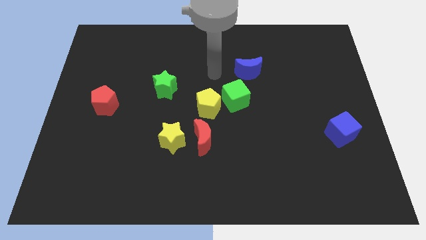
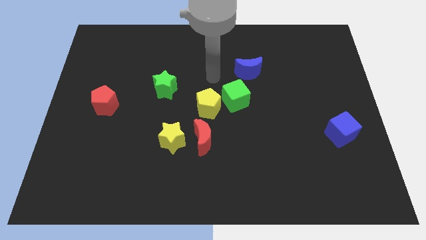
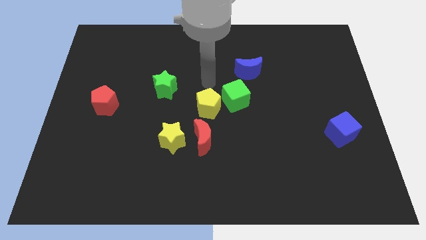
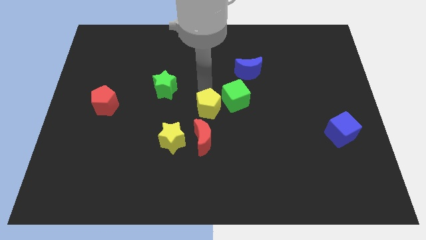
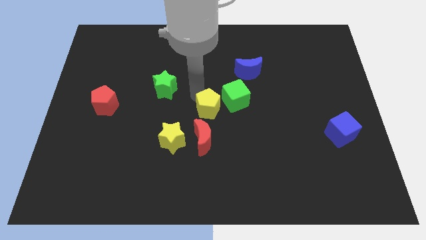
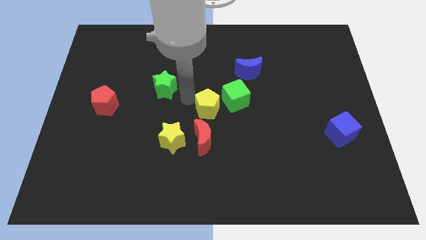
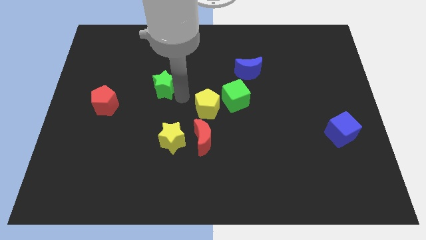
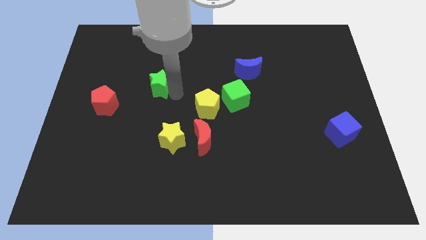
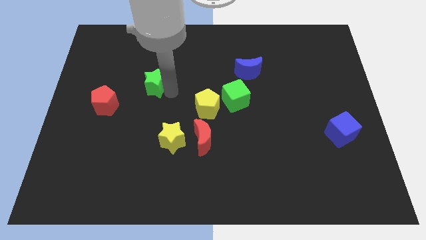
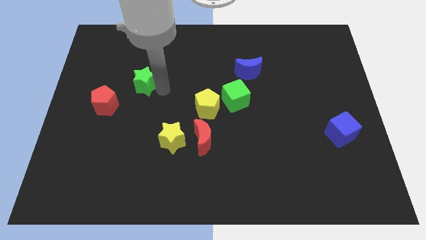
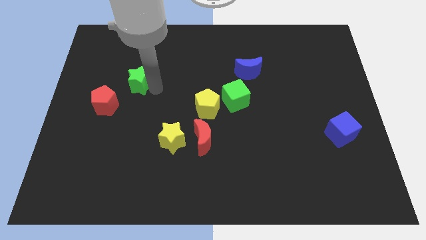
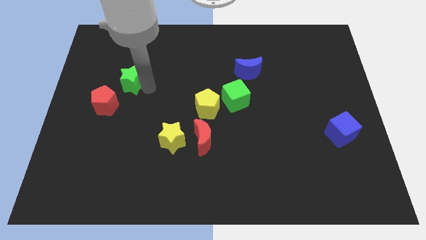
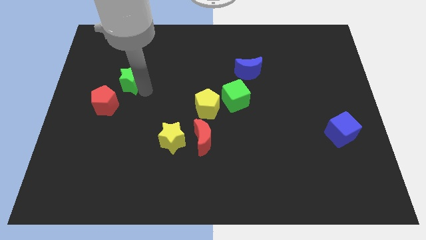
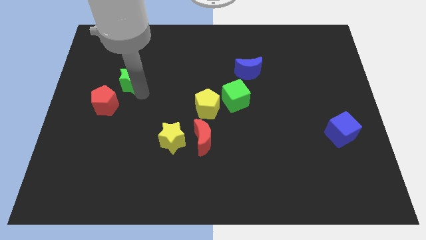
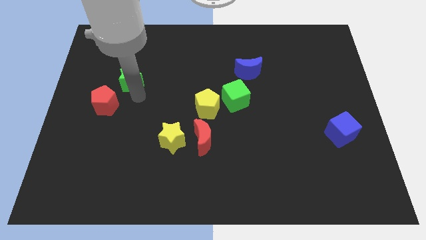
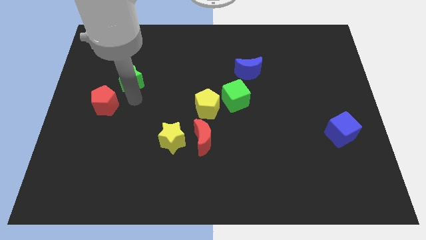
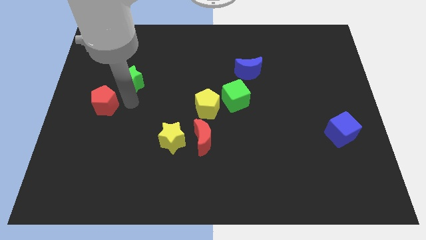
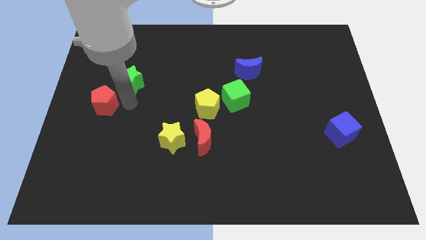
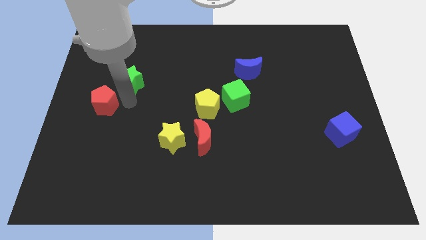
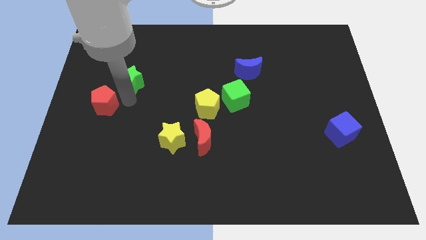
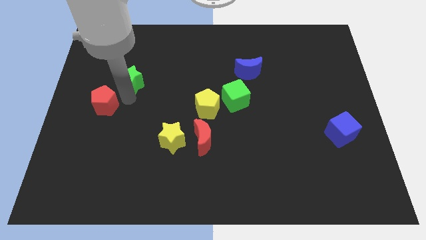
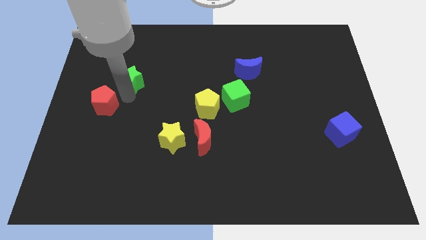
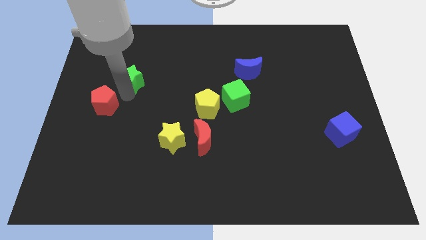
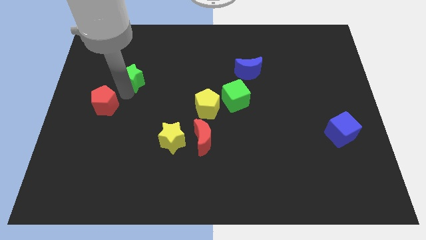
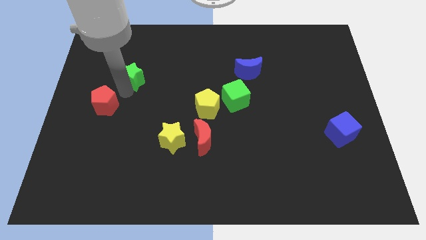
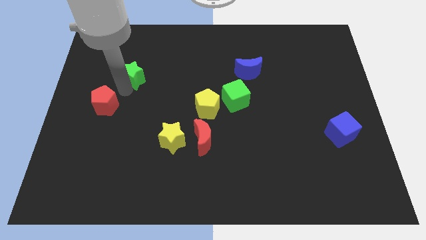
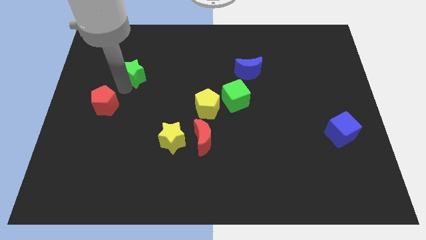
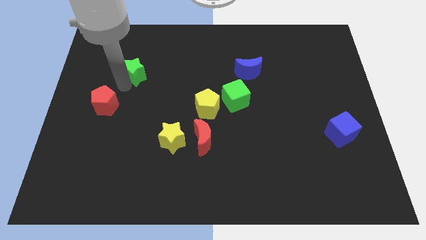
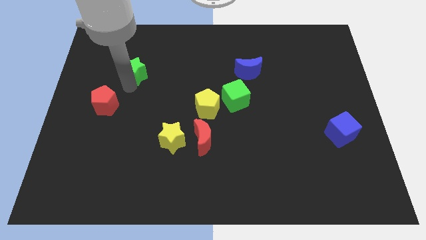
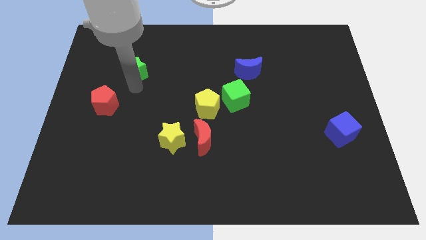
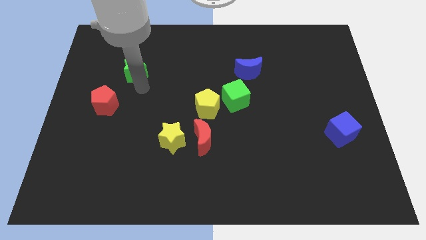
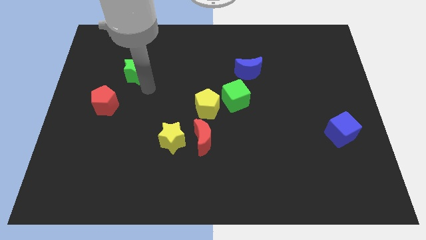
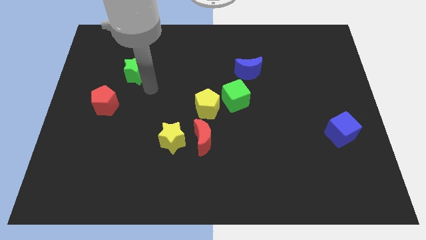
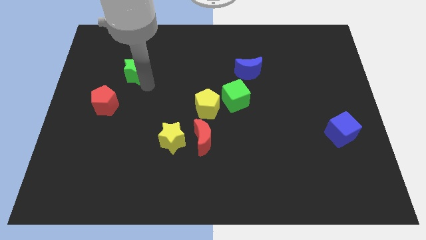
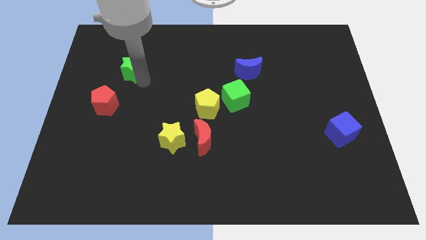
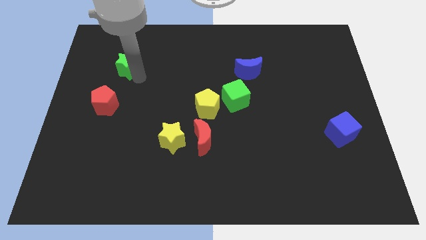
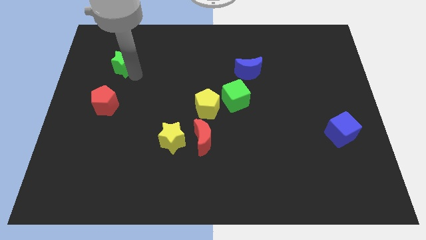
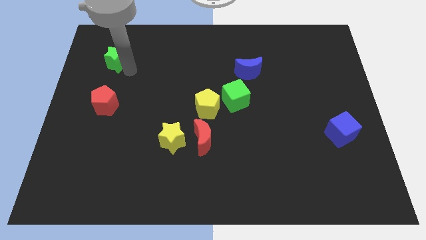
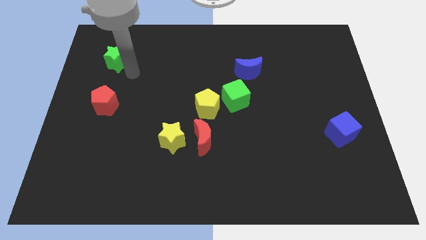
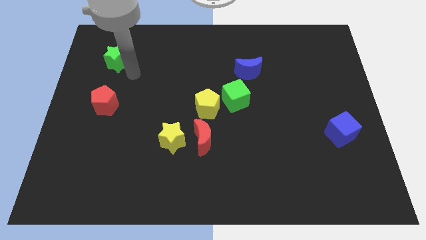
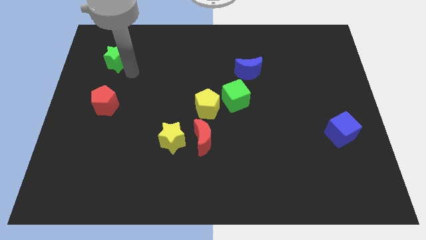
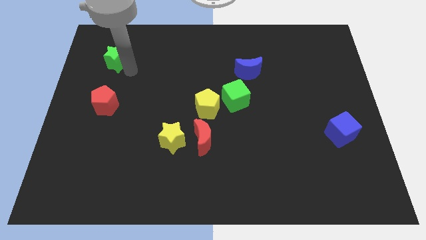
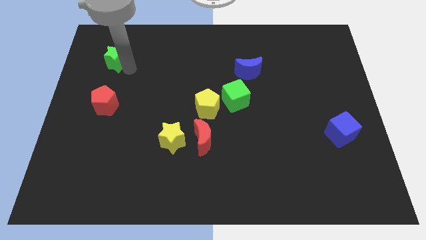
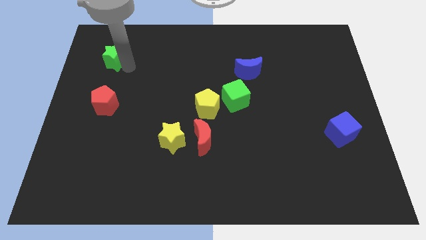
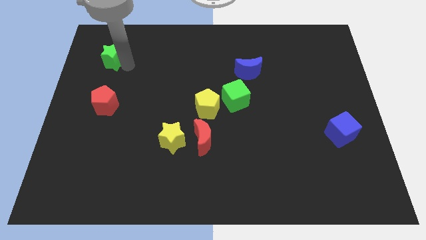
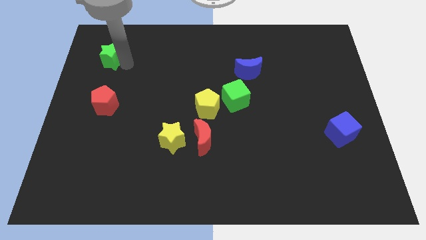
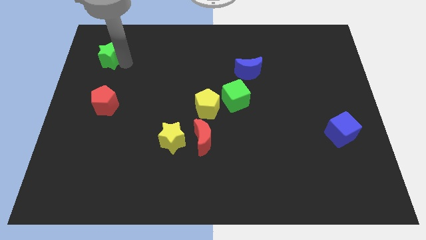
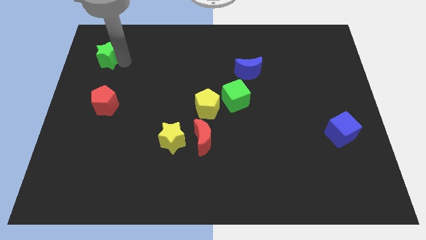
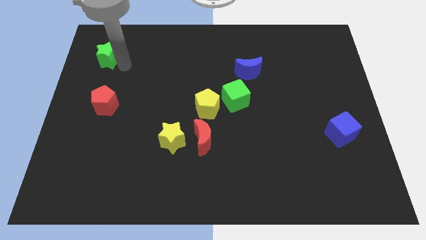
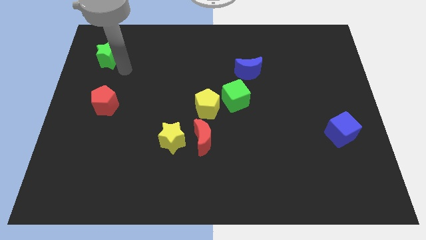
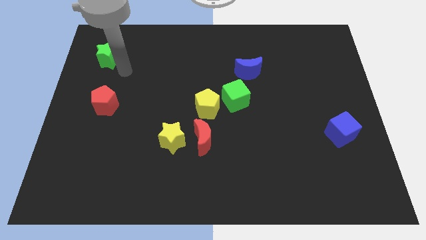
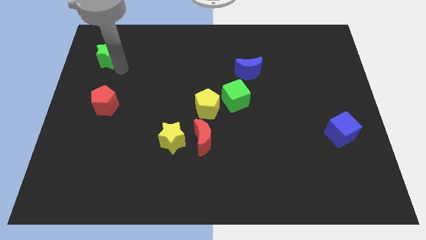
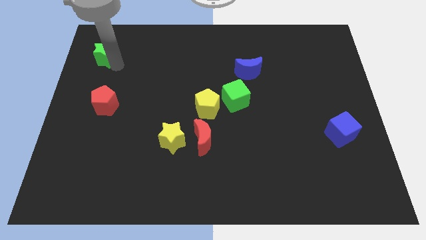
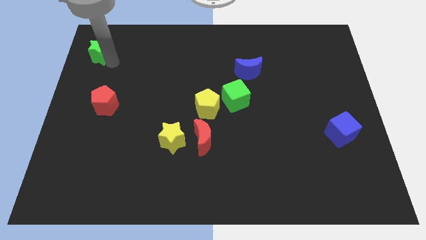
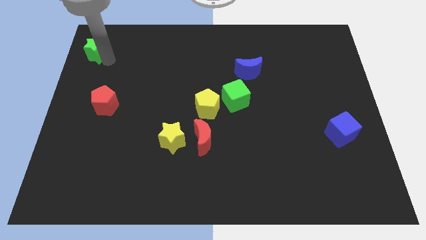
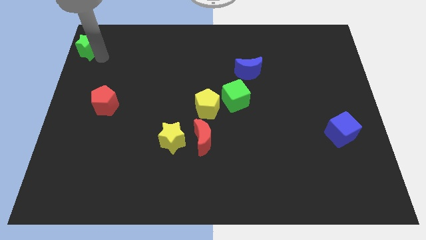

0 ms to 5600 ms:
push the green star to the top left

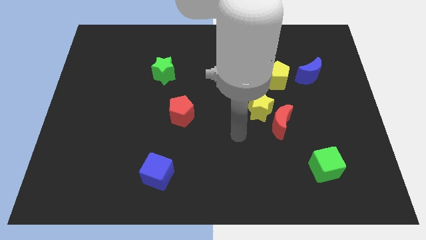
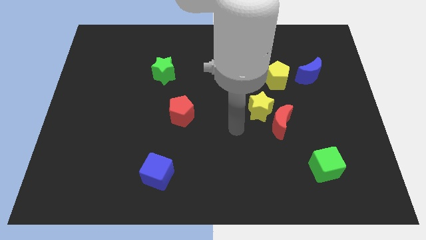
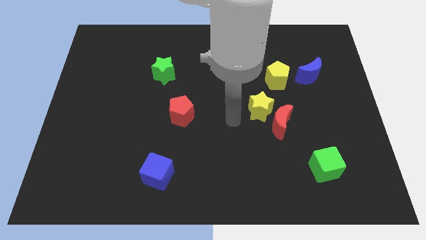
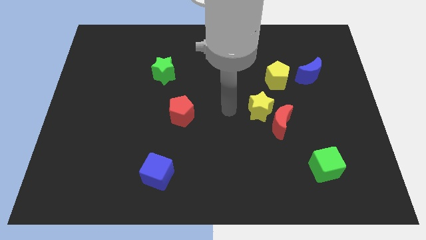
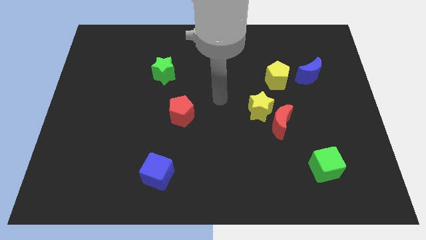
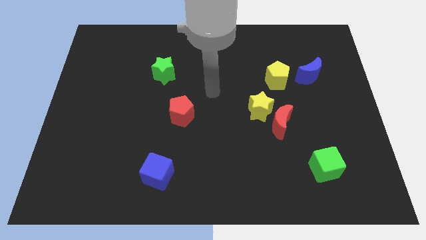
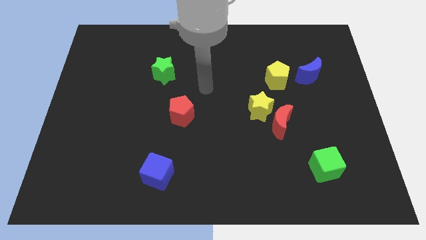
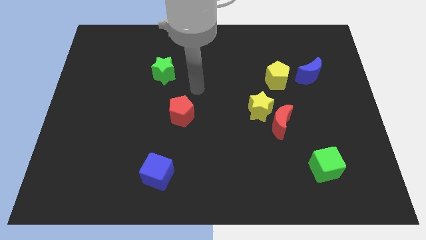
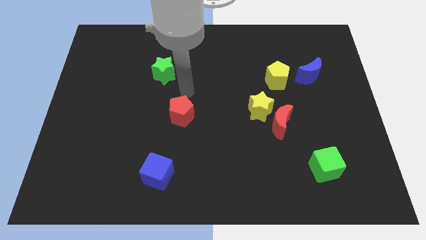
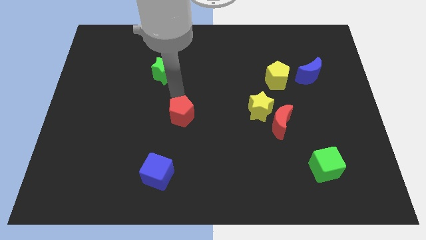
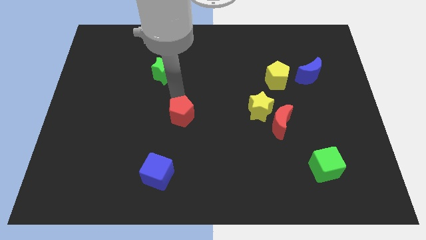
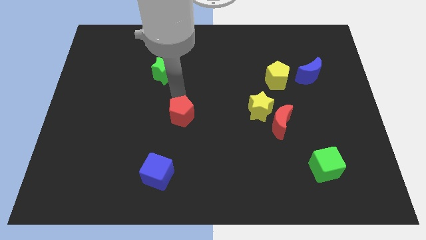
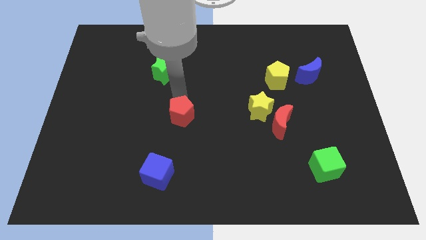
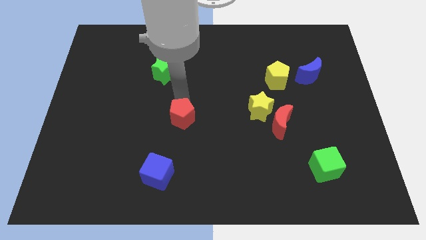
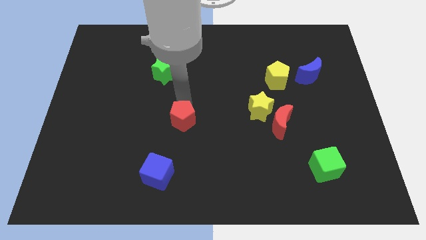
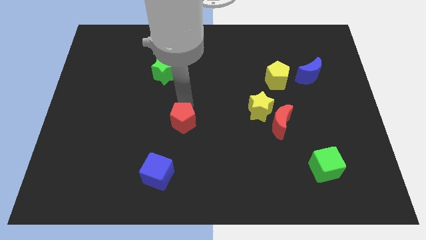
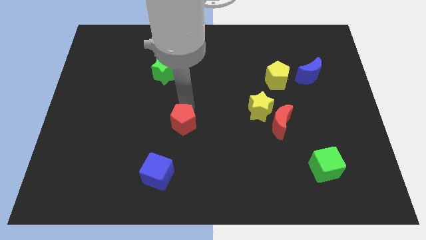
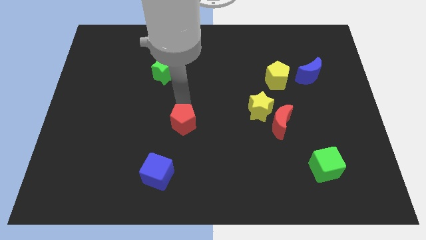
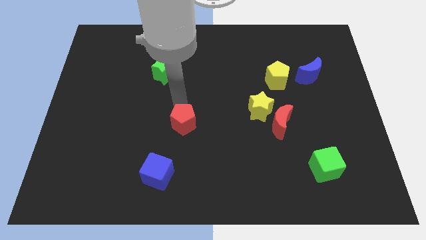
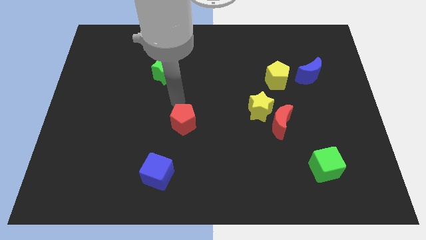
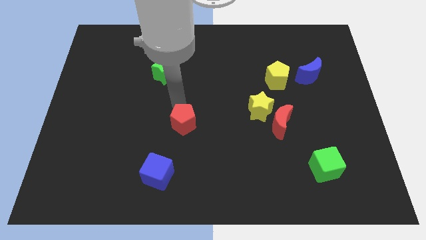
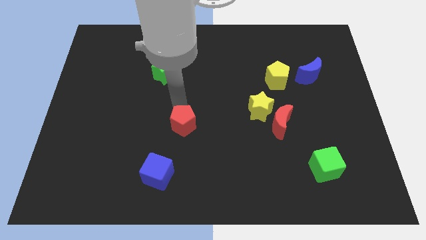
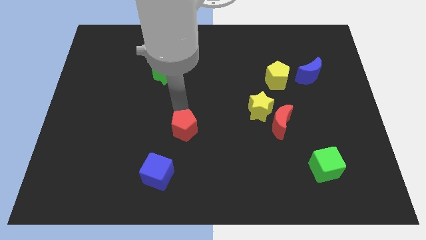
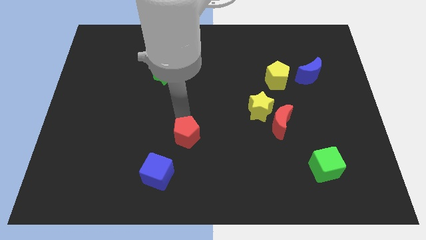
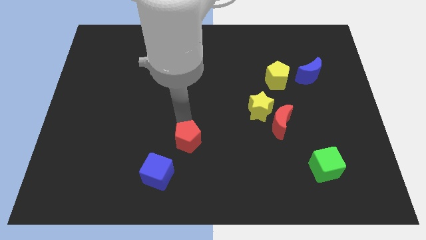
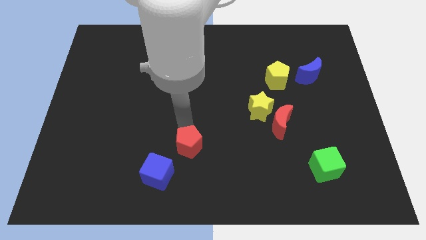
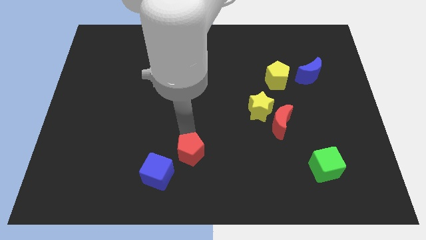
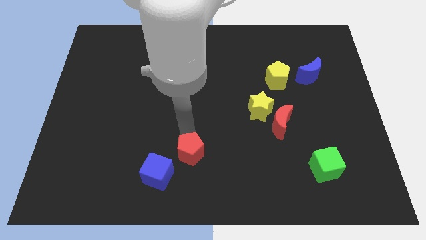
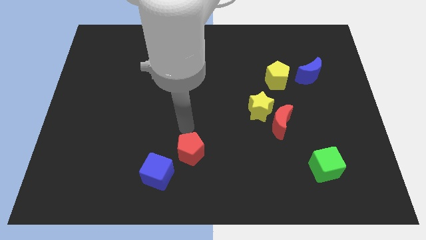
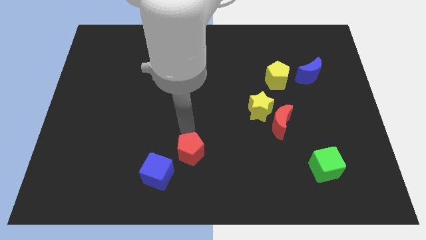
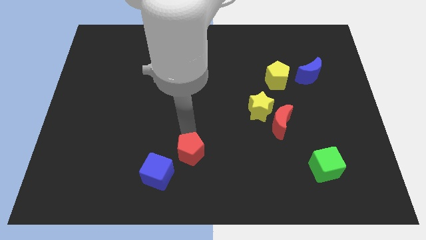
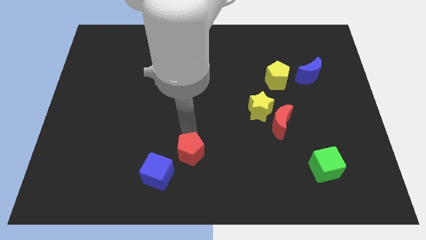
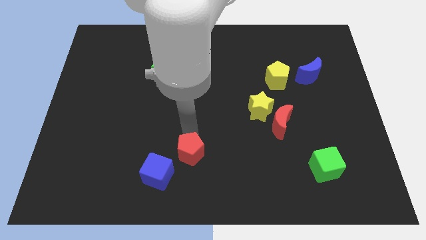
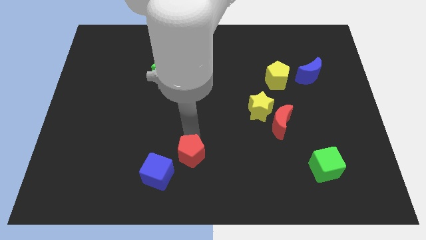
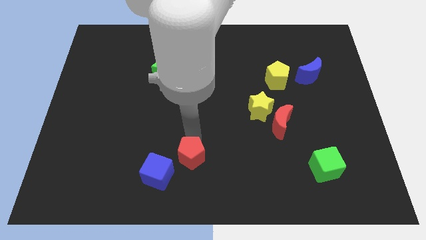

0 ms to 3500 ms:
slide the red pentagon to the bottom
